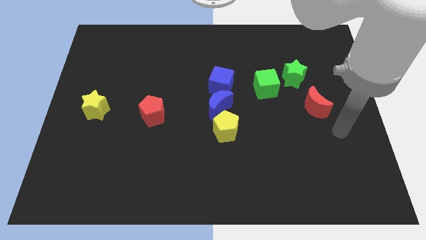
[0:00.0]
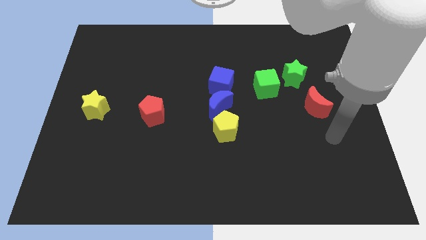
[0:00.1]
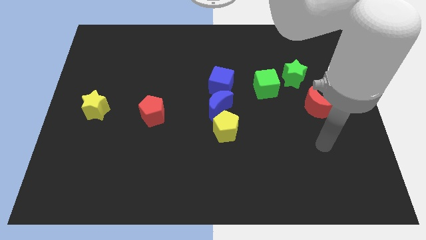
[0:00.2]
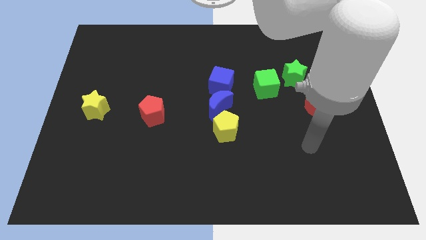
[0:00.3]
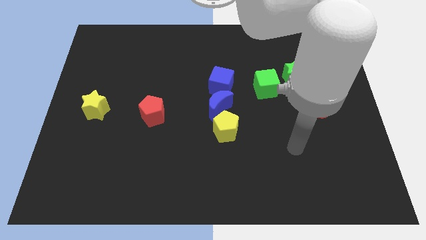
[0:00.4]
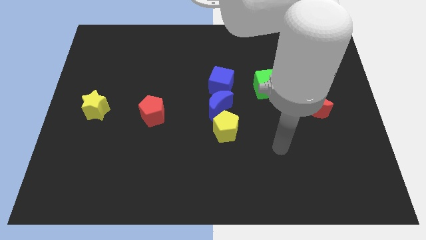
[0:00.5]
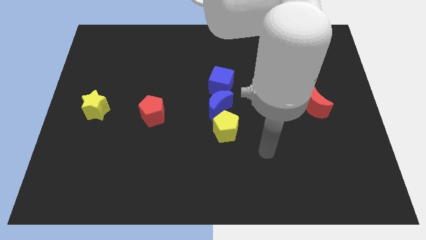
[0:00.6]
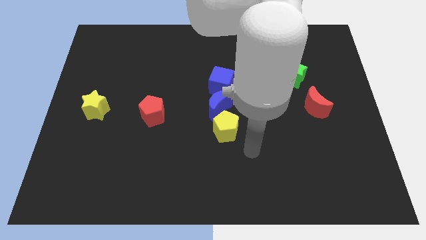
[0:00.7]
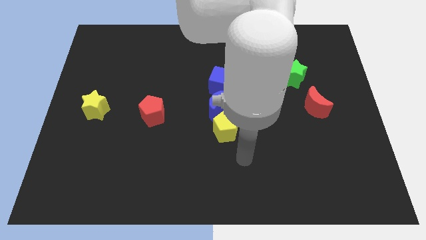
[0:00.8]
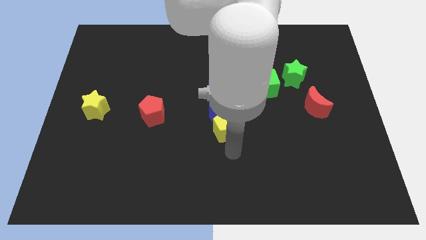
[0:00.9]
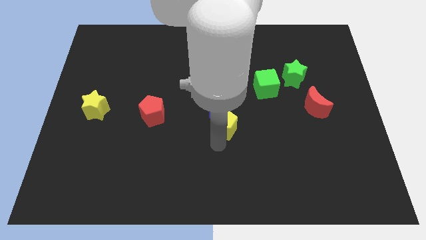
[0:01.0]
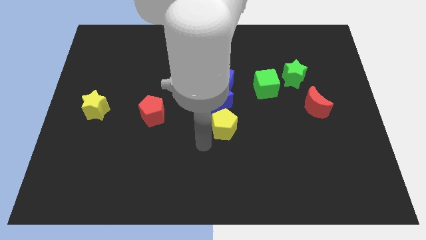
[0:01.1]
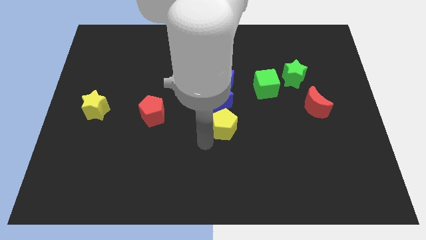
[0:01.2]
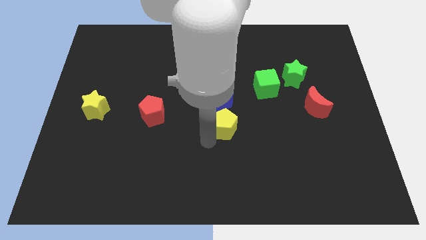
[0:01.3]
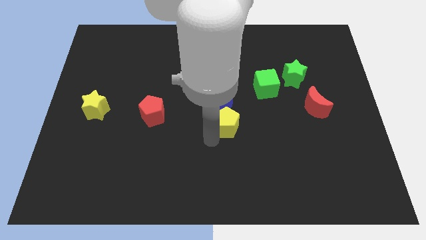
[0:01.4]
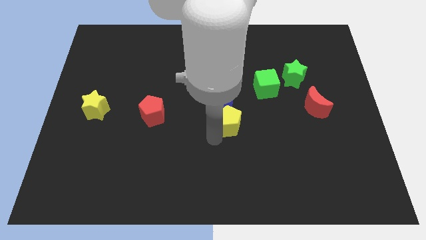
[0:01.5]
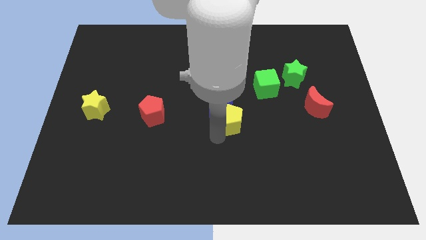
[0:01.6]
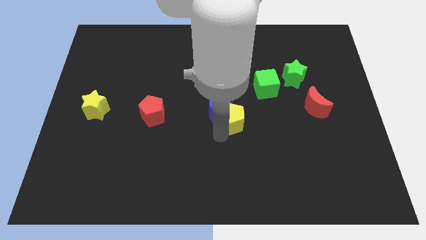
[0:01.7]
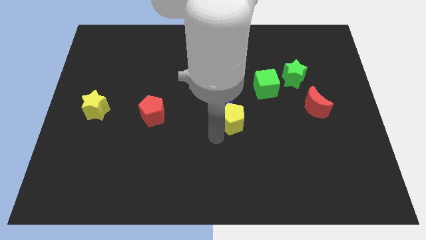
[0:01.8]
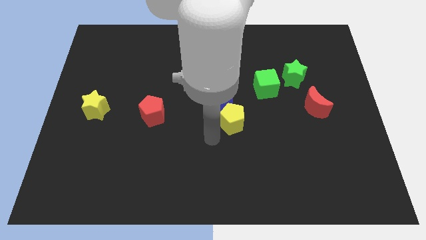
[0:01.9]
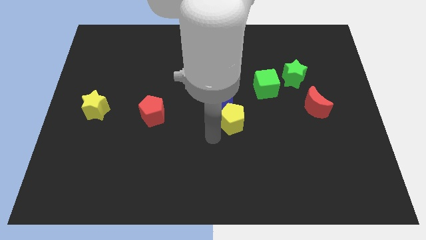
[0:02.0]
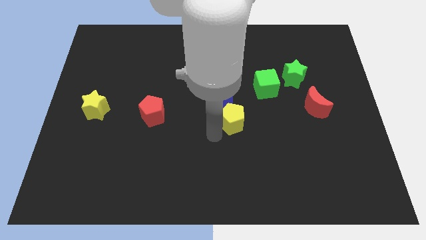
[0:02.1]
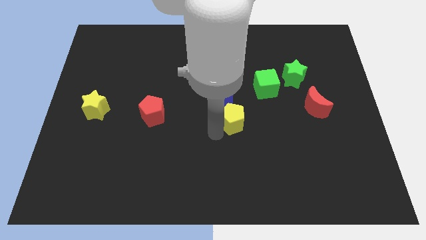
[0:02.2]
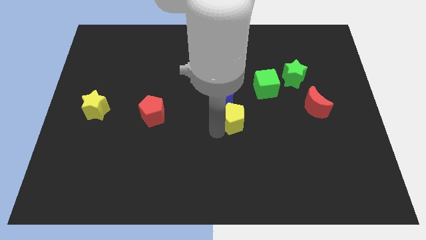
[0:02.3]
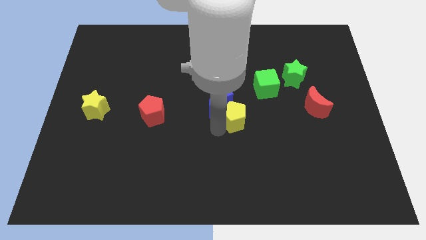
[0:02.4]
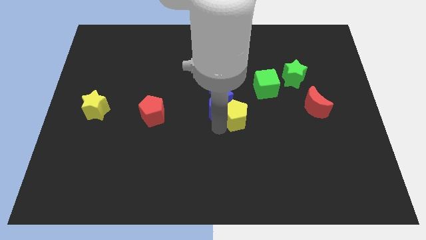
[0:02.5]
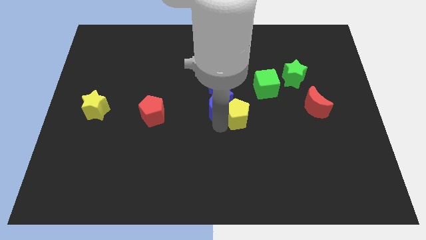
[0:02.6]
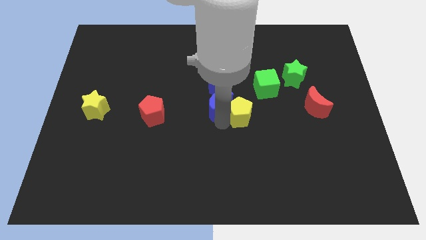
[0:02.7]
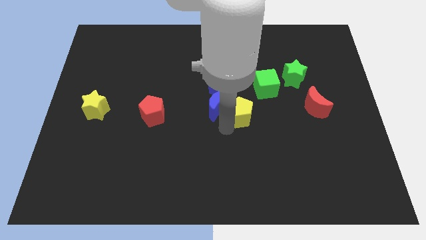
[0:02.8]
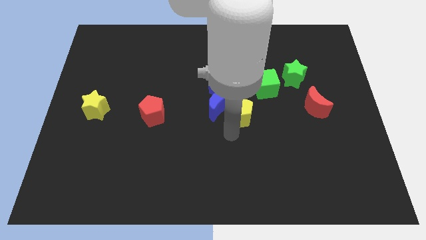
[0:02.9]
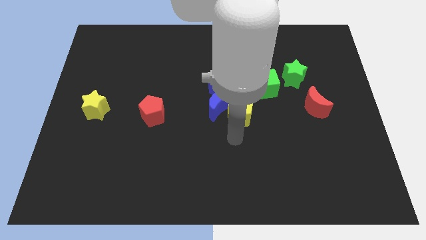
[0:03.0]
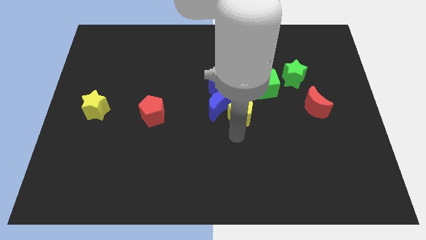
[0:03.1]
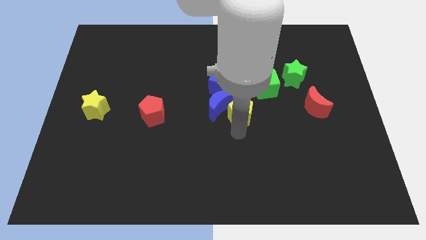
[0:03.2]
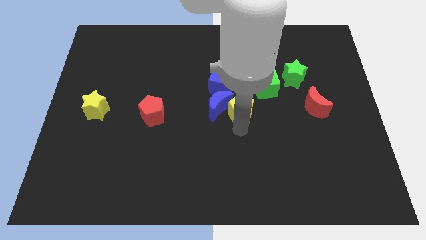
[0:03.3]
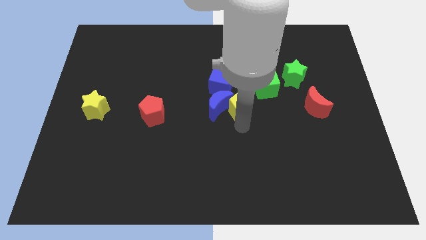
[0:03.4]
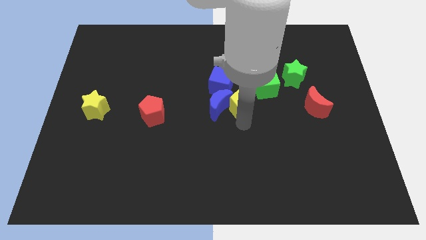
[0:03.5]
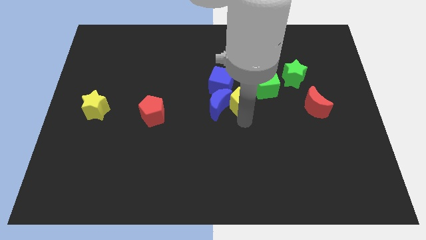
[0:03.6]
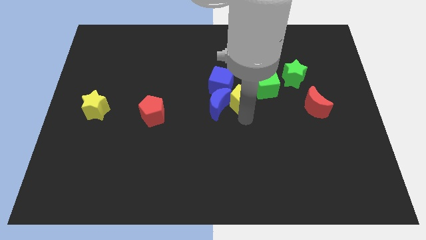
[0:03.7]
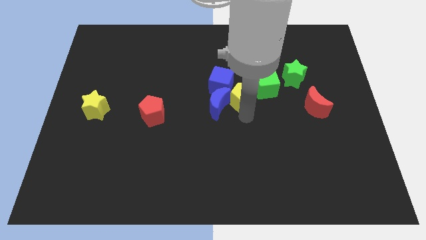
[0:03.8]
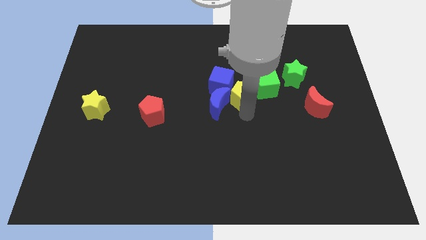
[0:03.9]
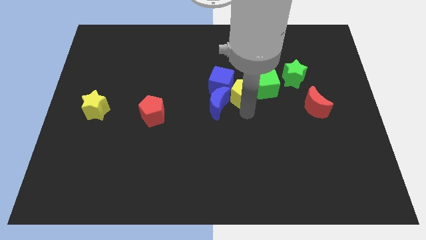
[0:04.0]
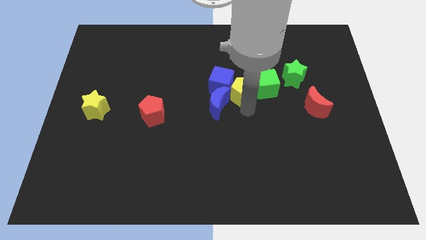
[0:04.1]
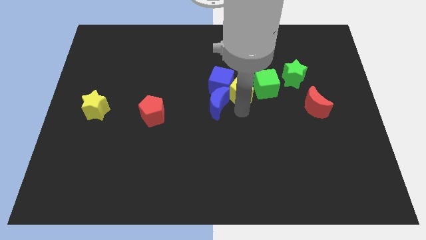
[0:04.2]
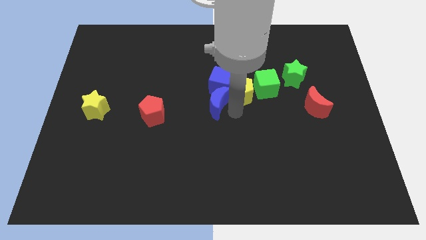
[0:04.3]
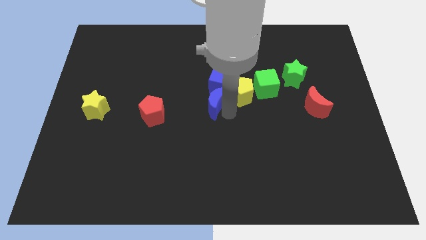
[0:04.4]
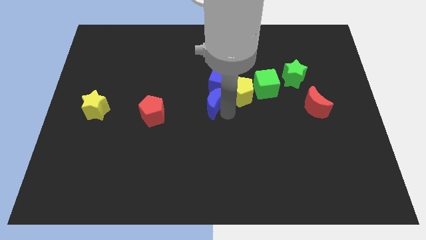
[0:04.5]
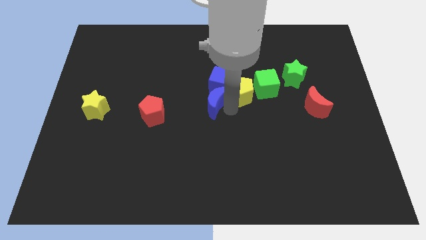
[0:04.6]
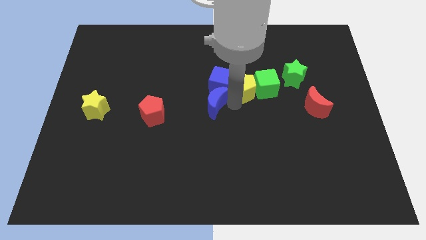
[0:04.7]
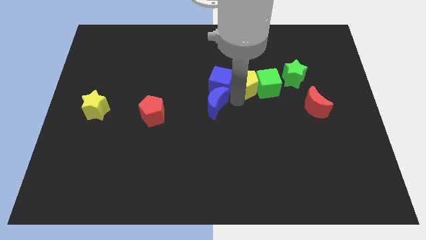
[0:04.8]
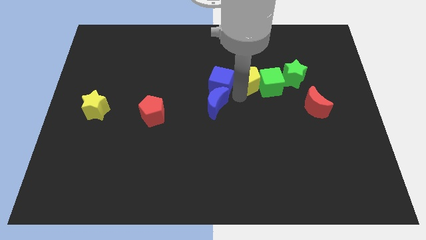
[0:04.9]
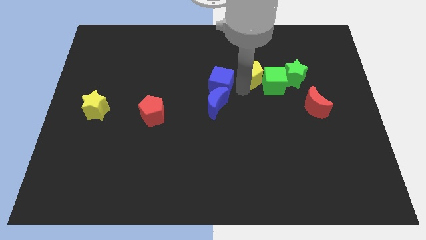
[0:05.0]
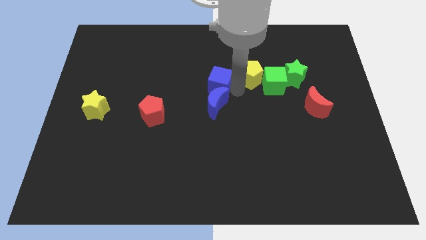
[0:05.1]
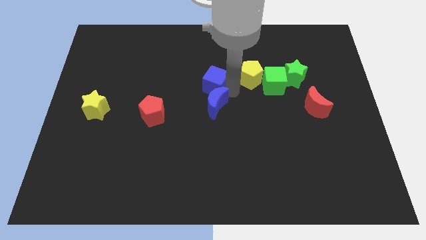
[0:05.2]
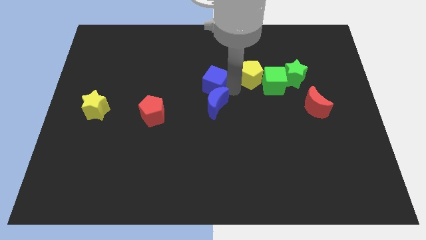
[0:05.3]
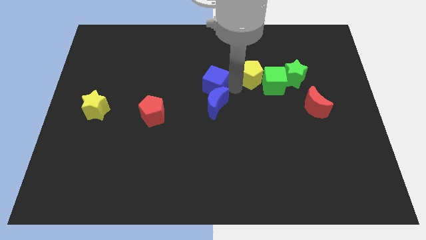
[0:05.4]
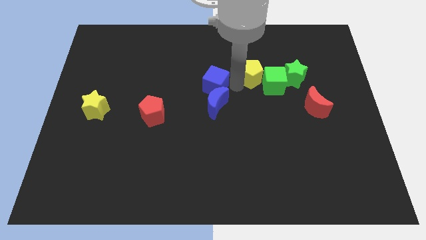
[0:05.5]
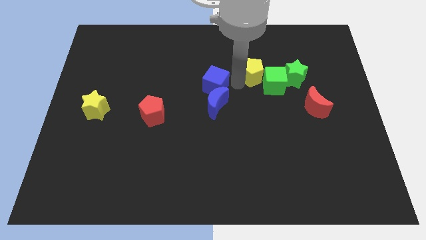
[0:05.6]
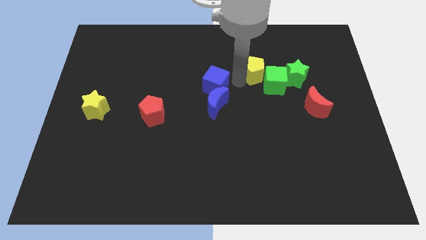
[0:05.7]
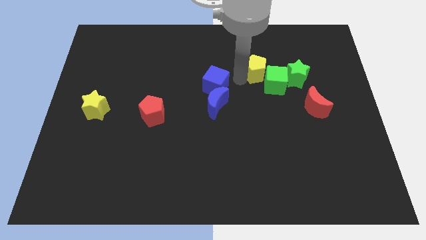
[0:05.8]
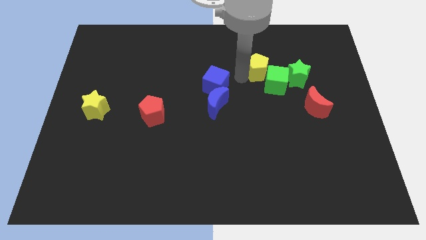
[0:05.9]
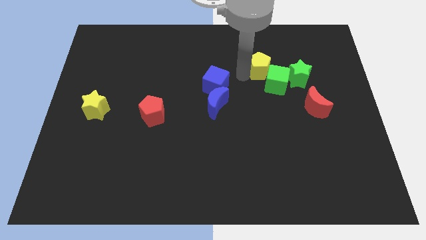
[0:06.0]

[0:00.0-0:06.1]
push the yellow pentagon to the top left side of the green star

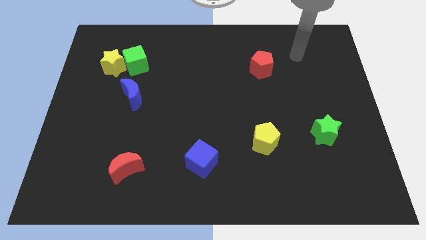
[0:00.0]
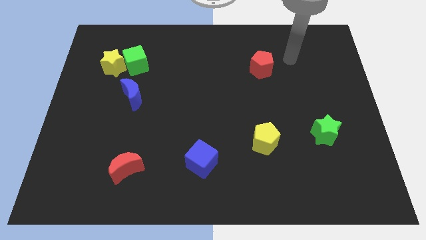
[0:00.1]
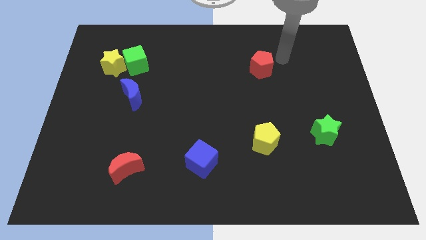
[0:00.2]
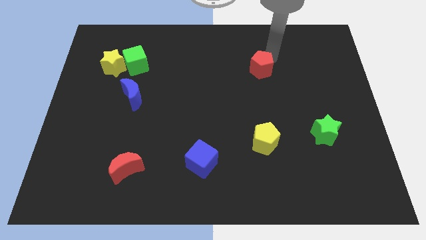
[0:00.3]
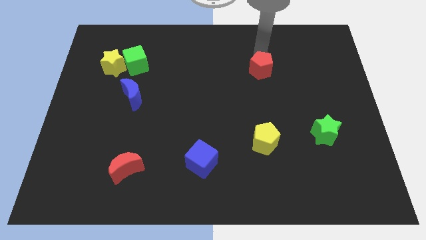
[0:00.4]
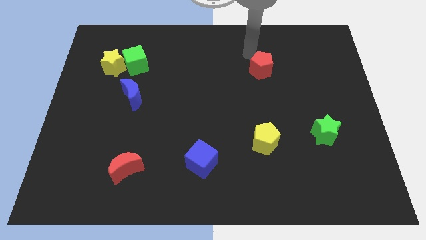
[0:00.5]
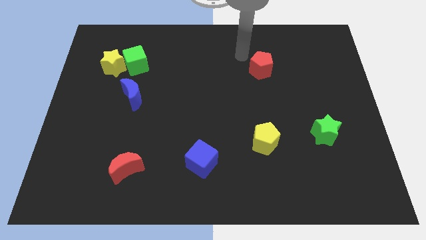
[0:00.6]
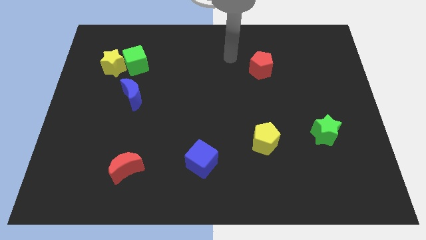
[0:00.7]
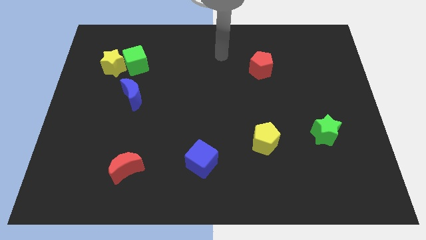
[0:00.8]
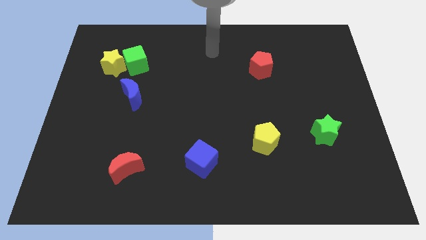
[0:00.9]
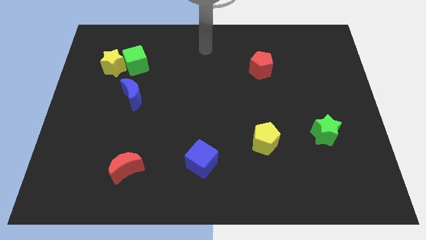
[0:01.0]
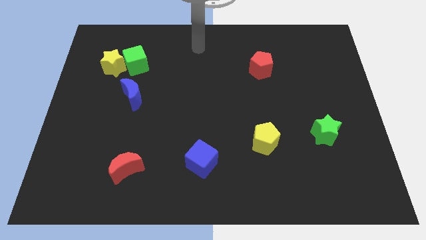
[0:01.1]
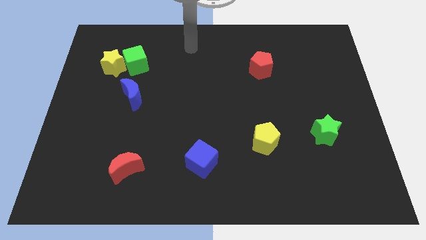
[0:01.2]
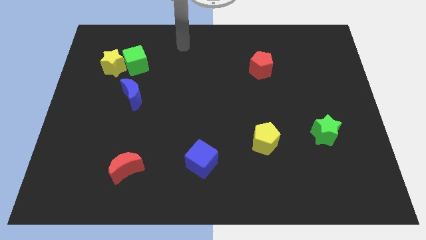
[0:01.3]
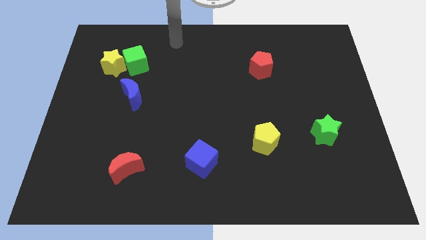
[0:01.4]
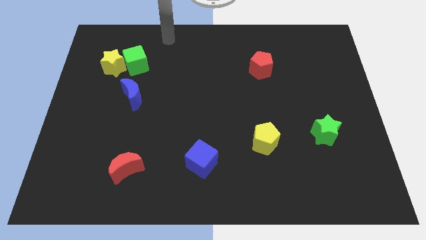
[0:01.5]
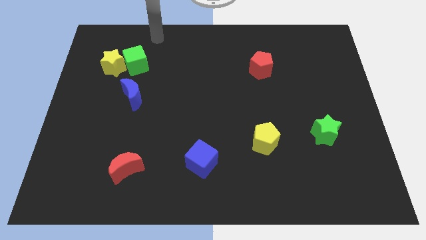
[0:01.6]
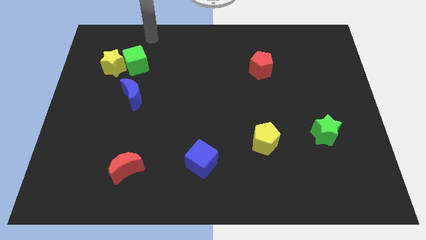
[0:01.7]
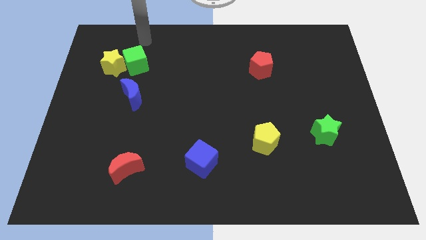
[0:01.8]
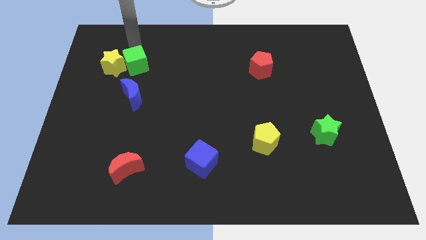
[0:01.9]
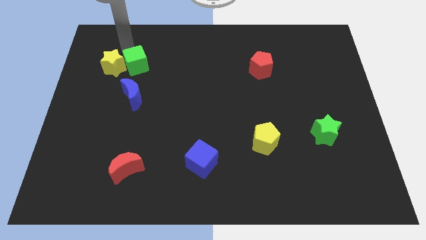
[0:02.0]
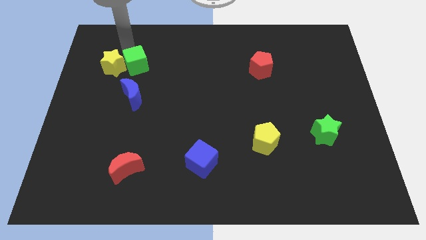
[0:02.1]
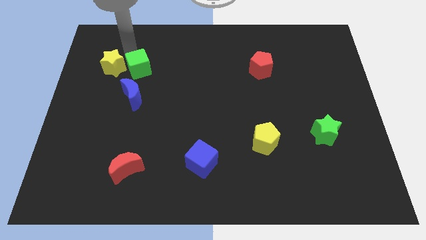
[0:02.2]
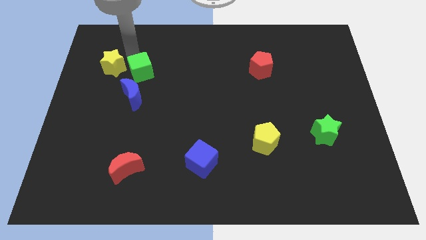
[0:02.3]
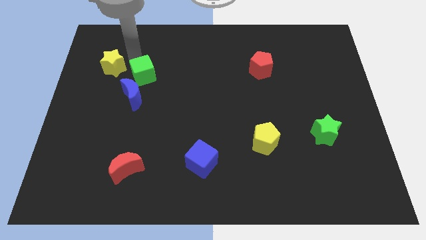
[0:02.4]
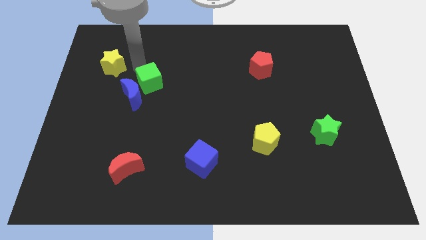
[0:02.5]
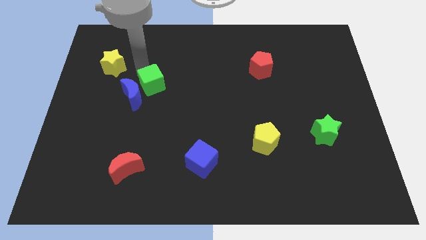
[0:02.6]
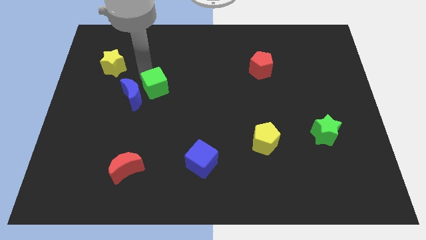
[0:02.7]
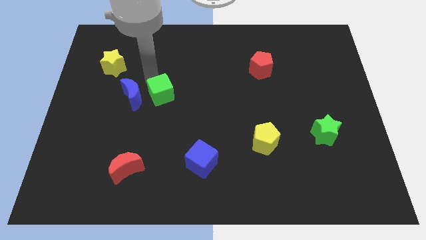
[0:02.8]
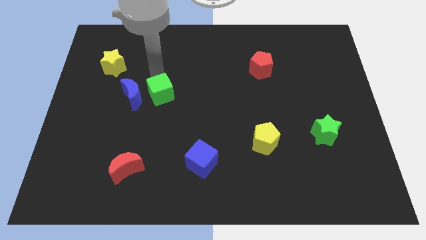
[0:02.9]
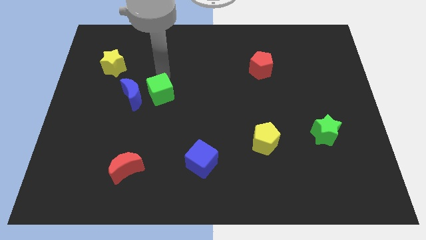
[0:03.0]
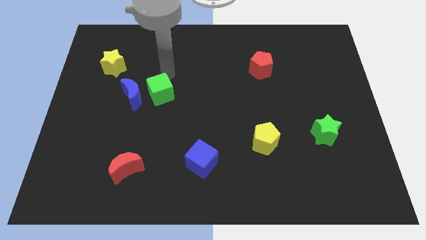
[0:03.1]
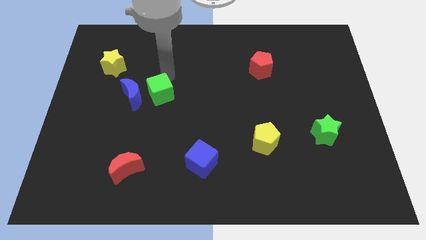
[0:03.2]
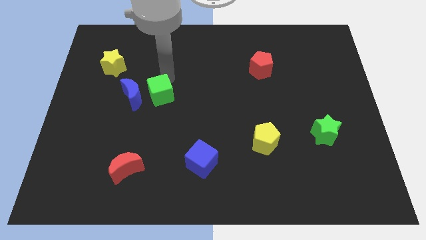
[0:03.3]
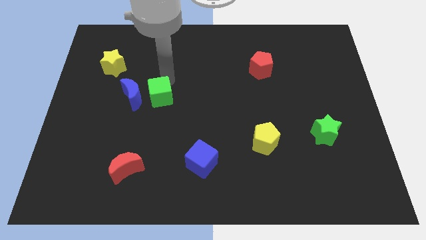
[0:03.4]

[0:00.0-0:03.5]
slide the green cube to the bottom right side of the blue moon
